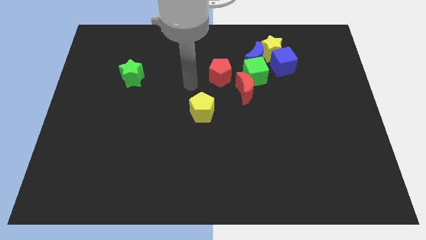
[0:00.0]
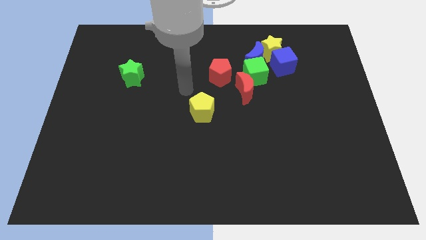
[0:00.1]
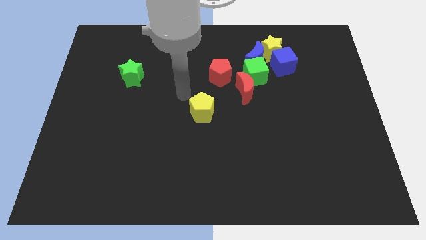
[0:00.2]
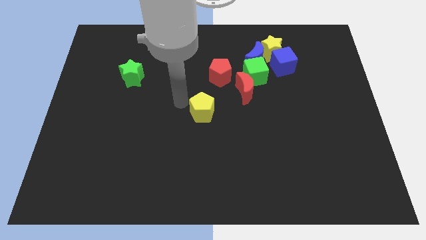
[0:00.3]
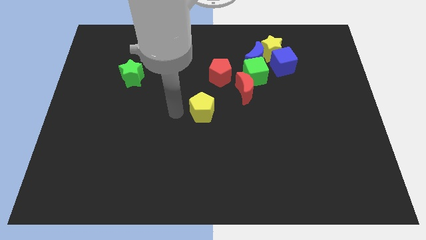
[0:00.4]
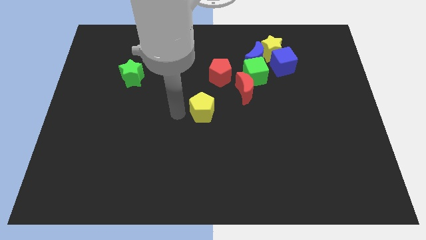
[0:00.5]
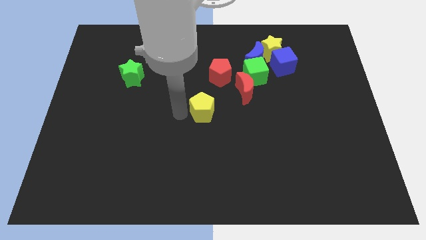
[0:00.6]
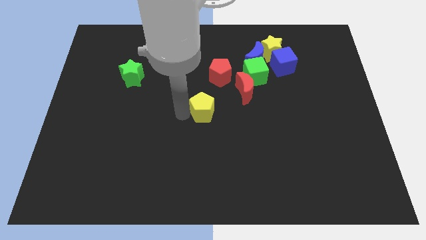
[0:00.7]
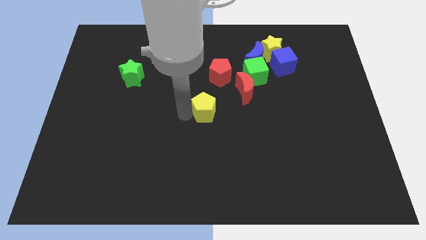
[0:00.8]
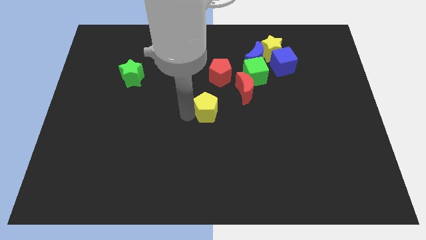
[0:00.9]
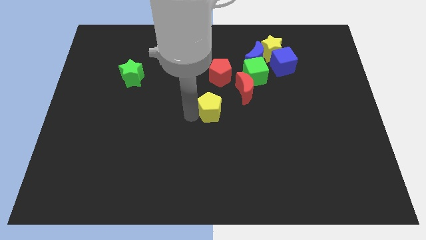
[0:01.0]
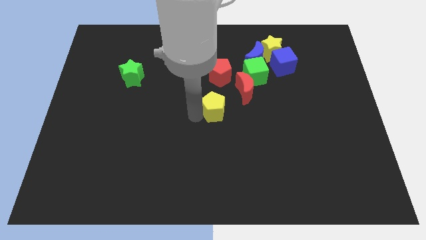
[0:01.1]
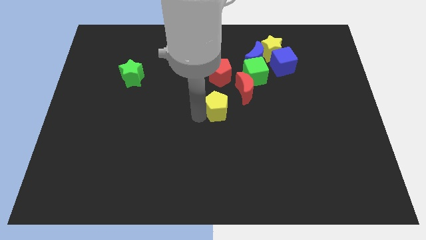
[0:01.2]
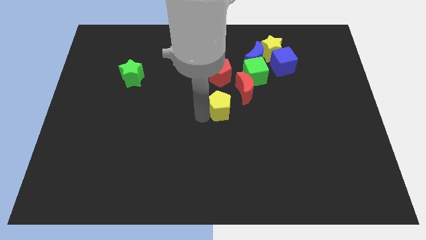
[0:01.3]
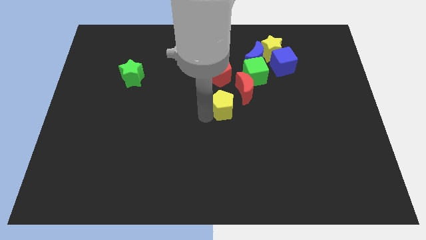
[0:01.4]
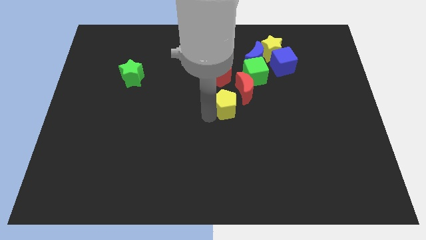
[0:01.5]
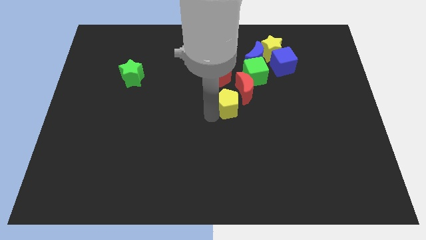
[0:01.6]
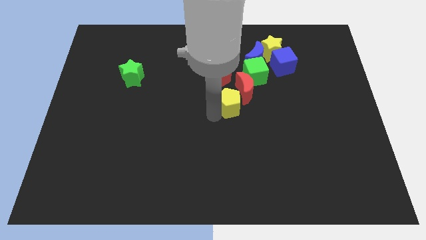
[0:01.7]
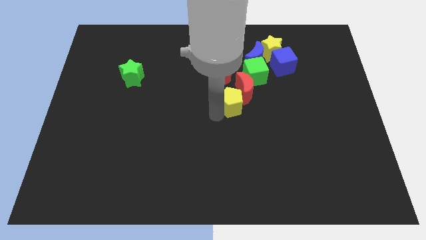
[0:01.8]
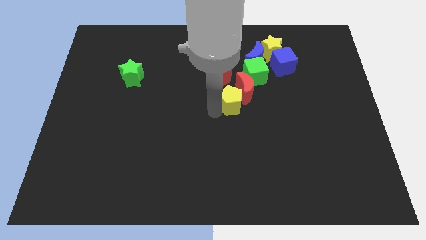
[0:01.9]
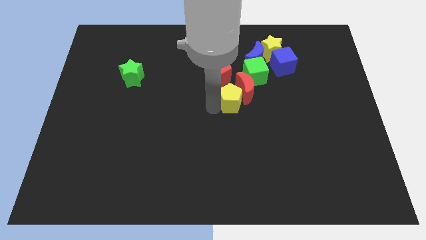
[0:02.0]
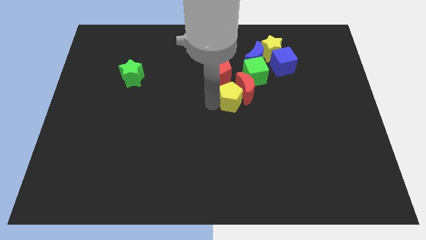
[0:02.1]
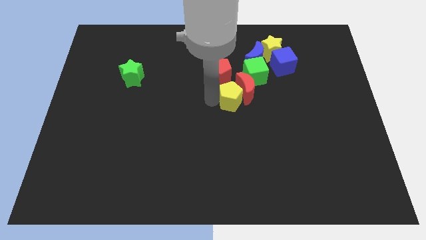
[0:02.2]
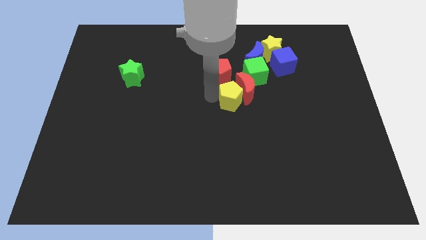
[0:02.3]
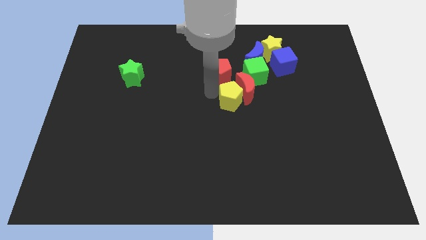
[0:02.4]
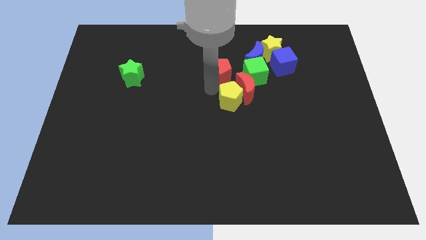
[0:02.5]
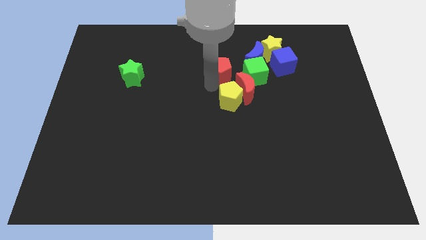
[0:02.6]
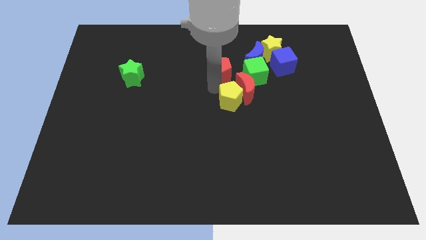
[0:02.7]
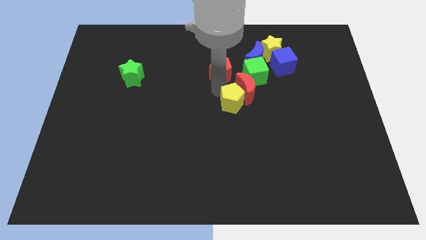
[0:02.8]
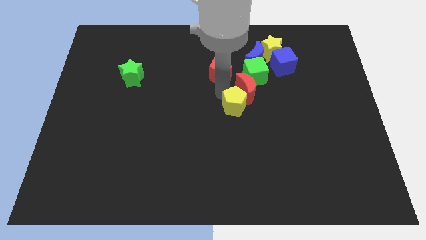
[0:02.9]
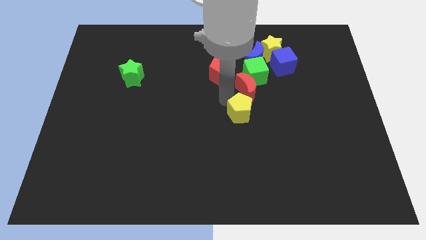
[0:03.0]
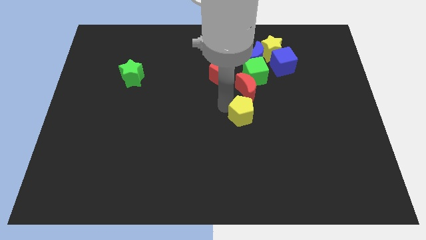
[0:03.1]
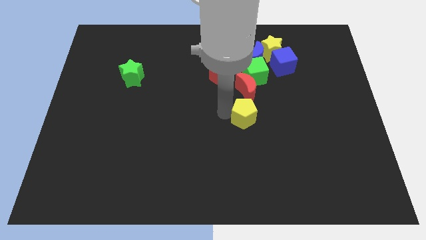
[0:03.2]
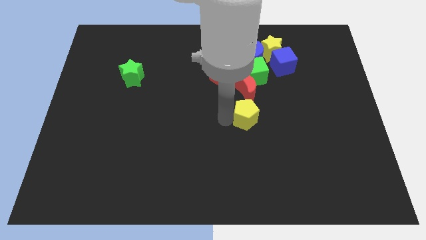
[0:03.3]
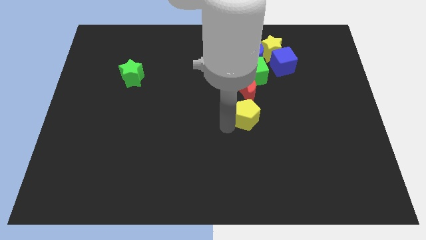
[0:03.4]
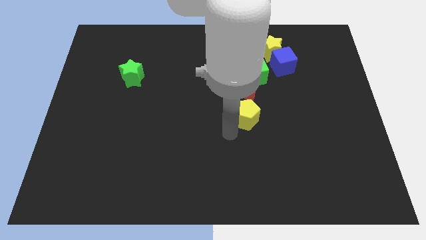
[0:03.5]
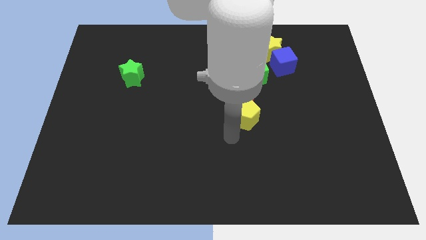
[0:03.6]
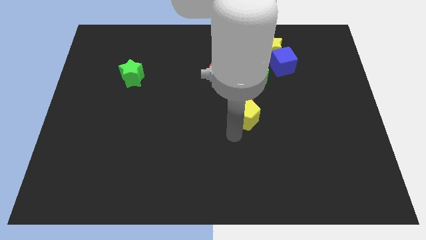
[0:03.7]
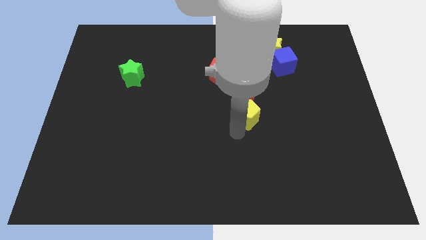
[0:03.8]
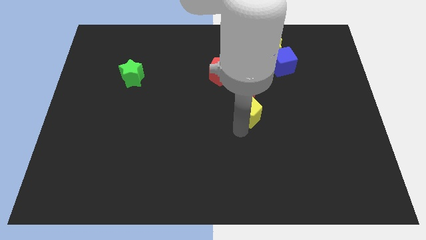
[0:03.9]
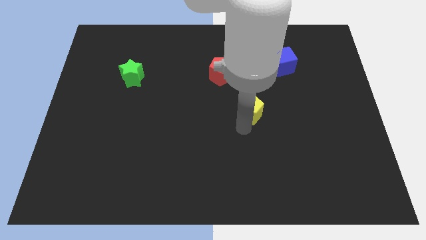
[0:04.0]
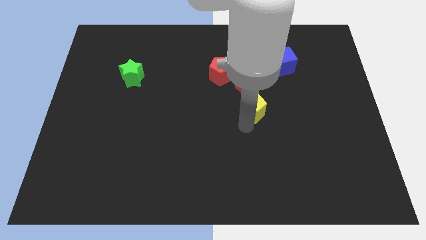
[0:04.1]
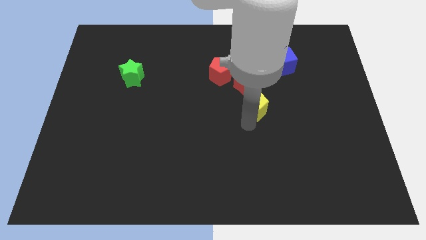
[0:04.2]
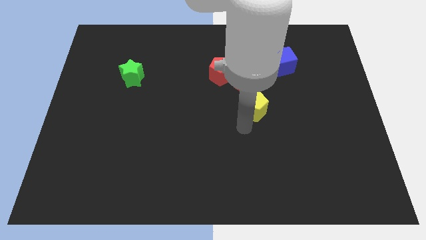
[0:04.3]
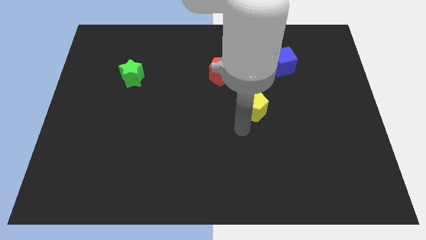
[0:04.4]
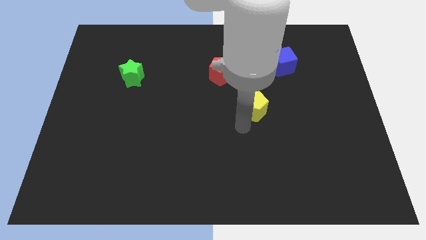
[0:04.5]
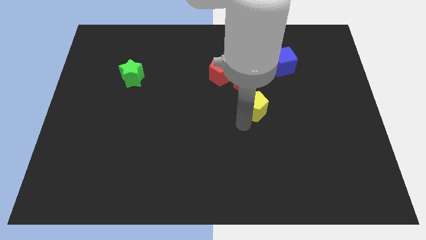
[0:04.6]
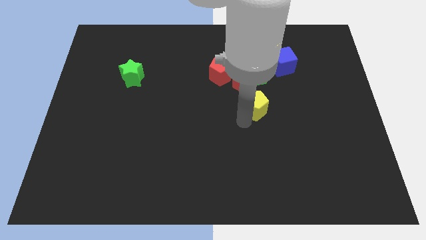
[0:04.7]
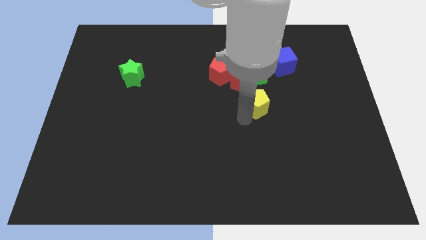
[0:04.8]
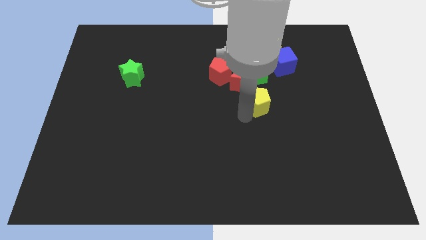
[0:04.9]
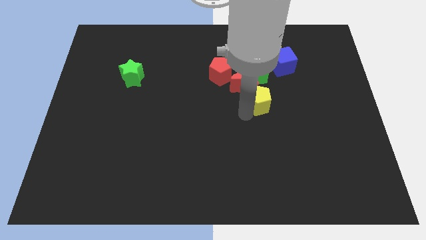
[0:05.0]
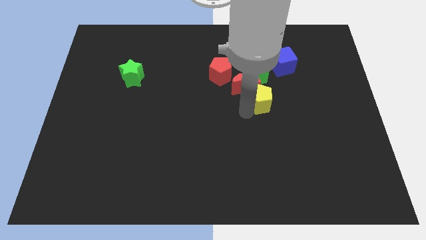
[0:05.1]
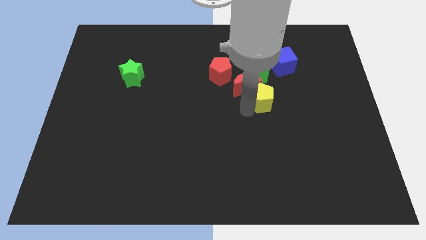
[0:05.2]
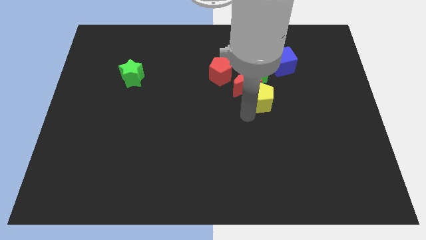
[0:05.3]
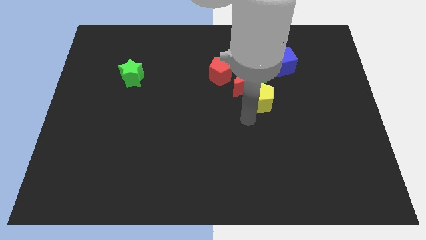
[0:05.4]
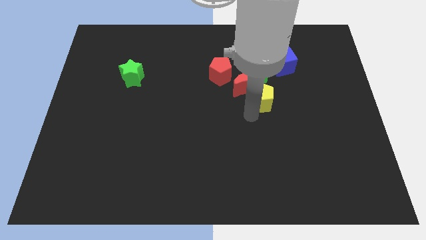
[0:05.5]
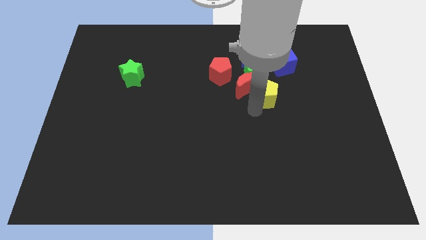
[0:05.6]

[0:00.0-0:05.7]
put the yellow pentagon to the bottom side of the yellow star

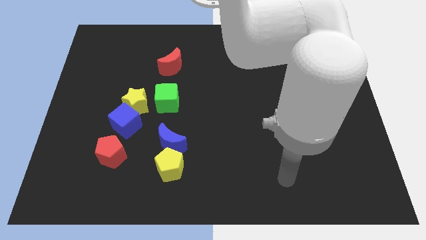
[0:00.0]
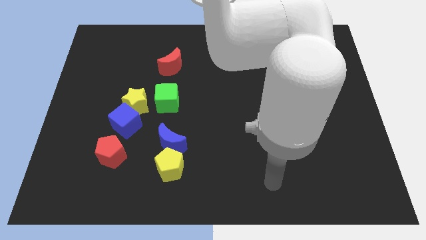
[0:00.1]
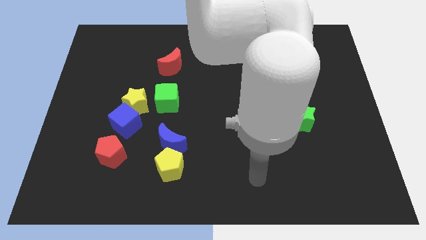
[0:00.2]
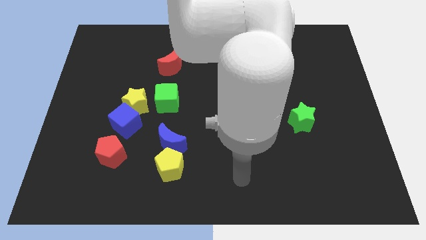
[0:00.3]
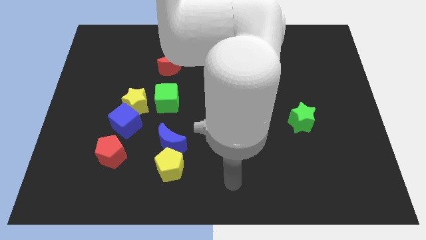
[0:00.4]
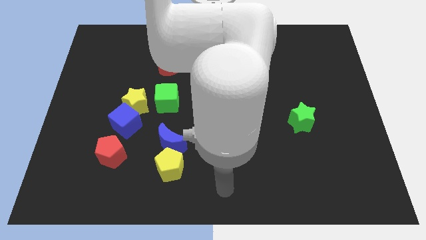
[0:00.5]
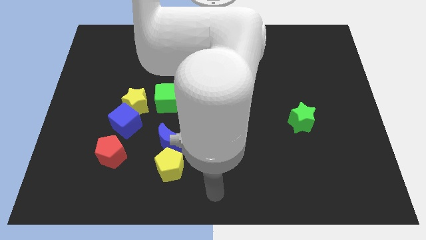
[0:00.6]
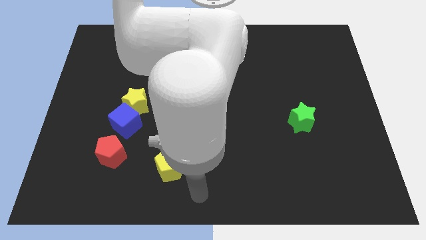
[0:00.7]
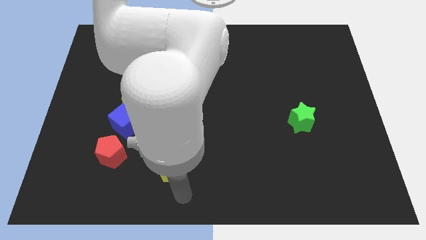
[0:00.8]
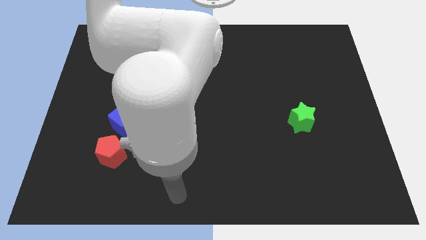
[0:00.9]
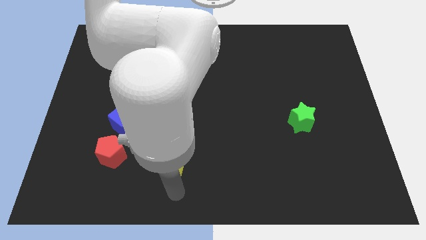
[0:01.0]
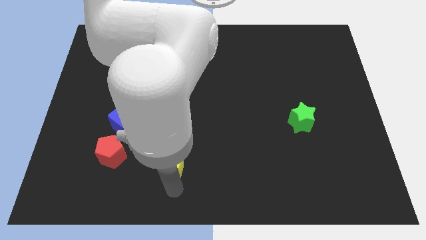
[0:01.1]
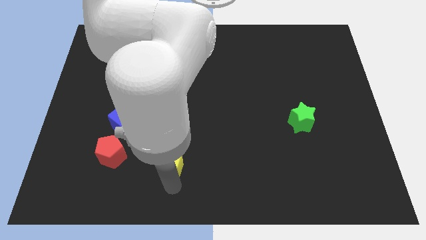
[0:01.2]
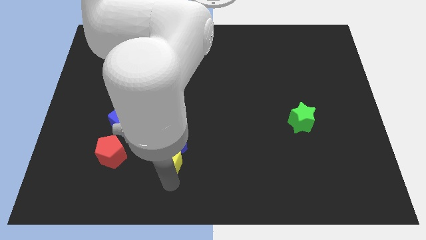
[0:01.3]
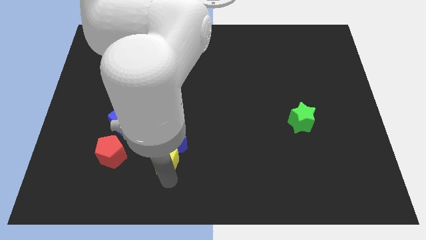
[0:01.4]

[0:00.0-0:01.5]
push the yellow pentagon to the bottom of the green cube

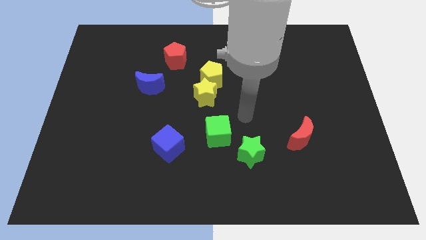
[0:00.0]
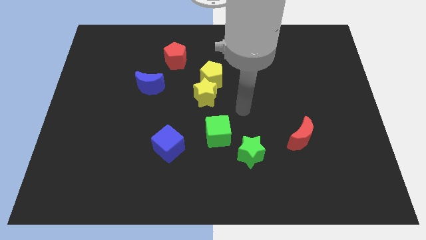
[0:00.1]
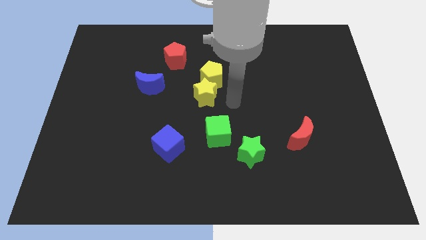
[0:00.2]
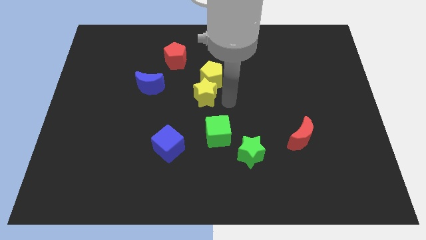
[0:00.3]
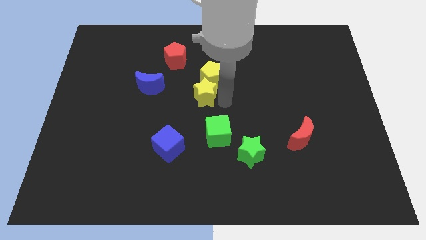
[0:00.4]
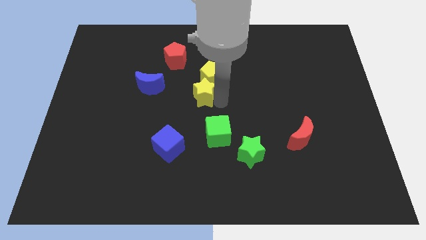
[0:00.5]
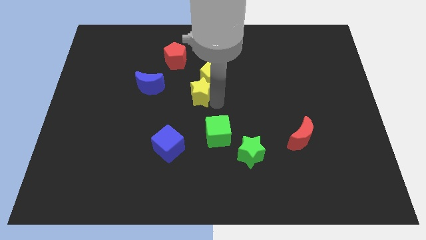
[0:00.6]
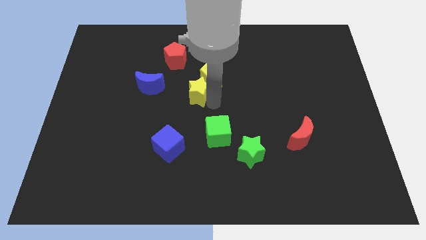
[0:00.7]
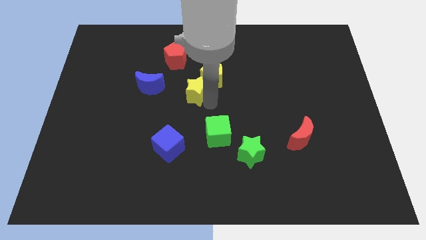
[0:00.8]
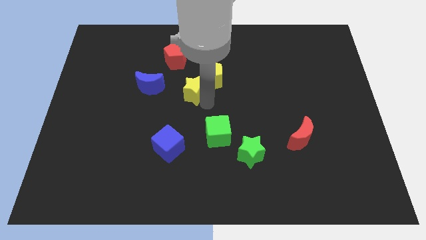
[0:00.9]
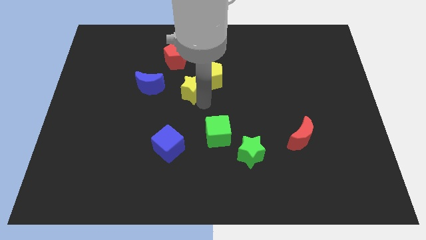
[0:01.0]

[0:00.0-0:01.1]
slide the yellow star to the bottom side of the red pentagon

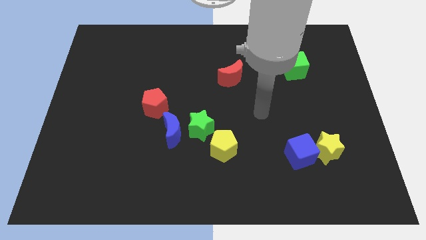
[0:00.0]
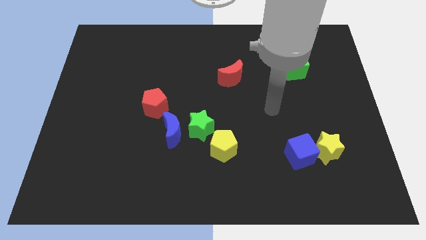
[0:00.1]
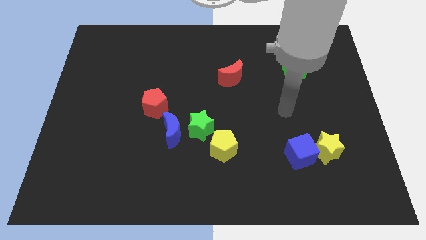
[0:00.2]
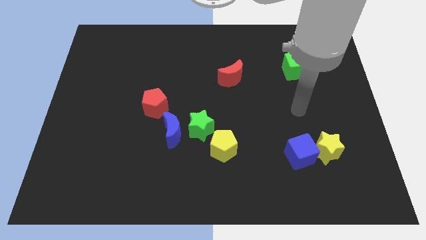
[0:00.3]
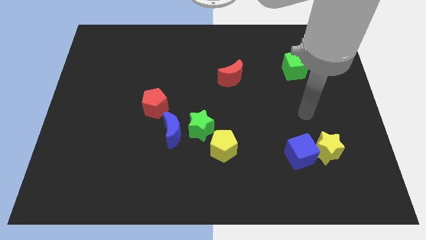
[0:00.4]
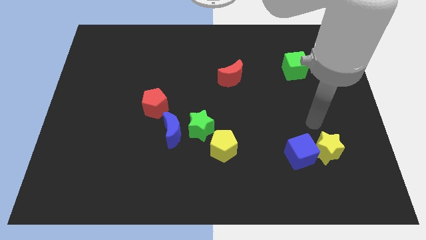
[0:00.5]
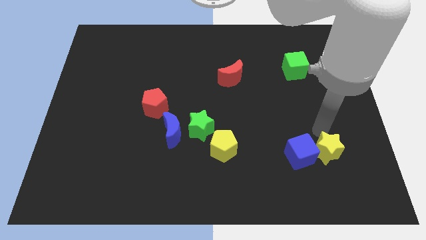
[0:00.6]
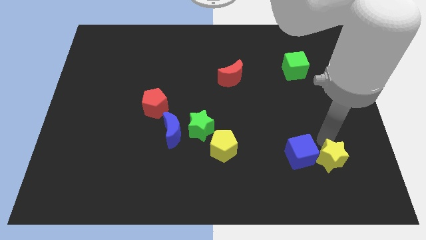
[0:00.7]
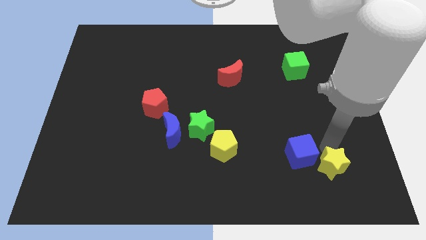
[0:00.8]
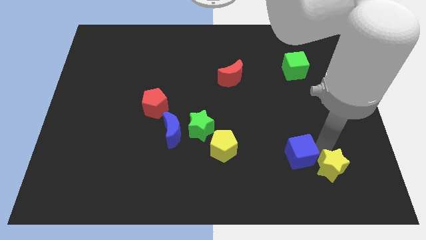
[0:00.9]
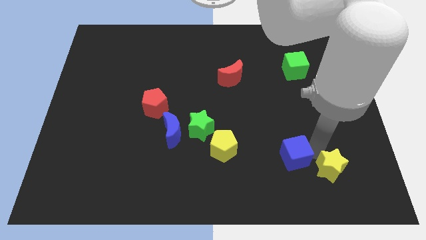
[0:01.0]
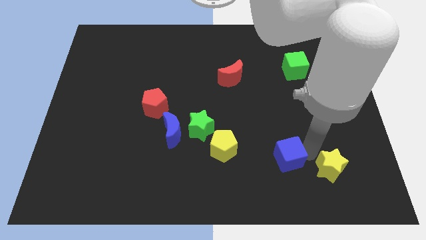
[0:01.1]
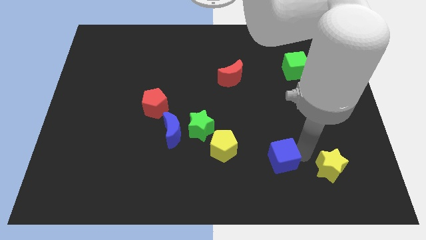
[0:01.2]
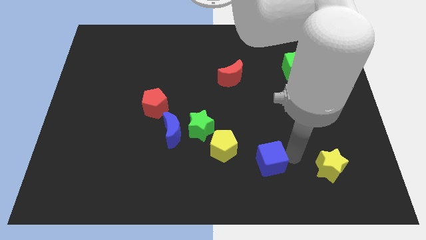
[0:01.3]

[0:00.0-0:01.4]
slide the blue cube diagonally down and to the right of the yellow pentagon
